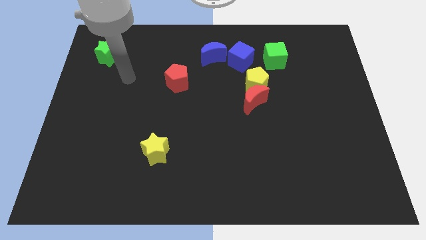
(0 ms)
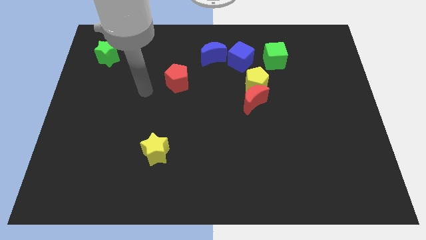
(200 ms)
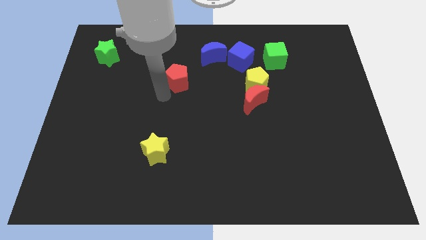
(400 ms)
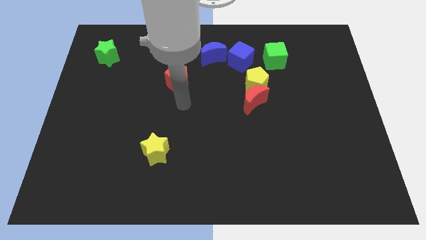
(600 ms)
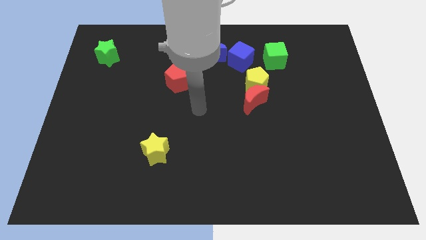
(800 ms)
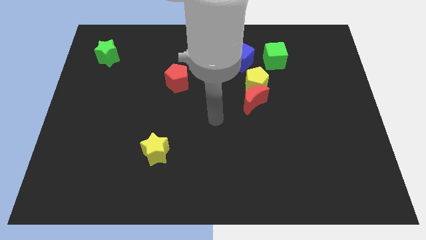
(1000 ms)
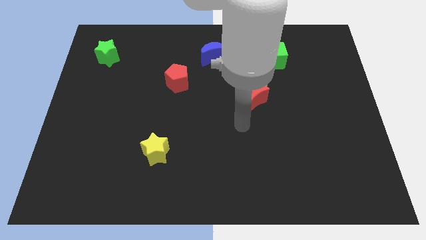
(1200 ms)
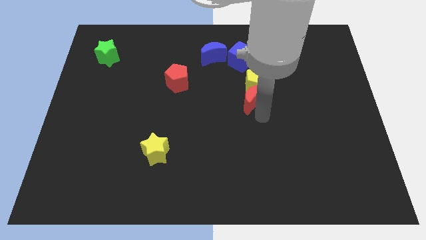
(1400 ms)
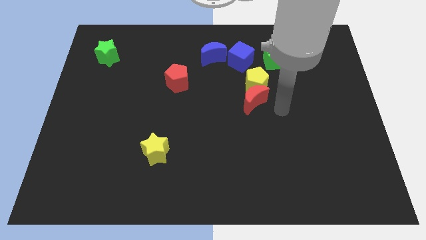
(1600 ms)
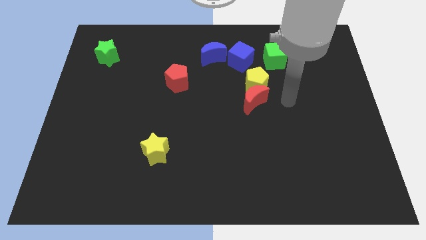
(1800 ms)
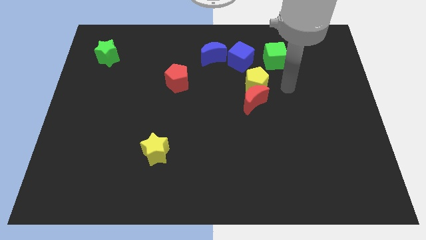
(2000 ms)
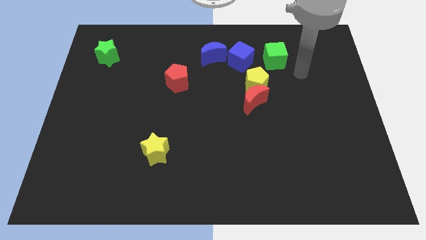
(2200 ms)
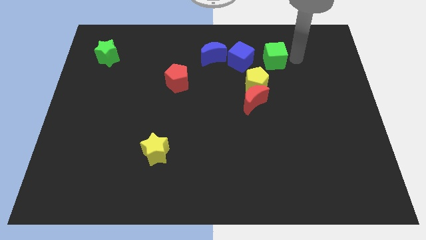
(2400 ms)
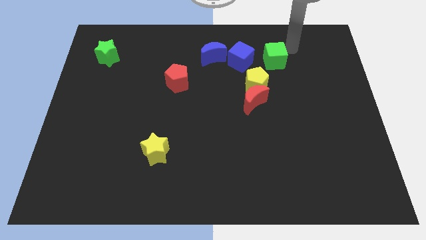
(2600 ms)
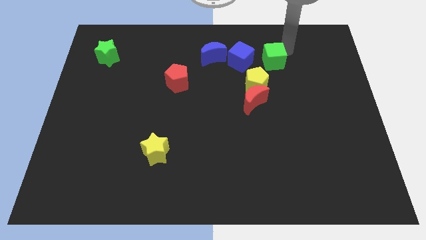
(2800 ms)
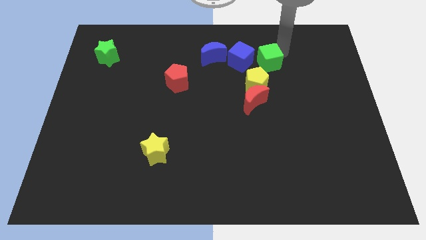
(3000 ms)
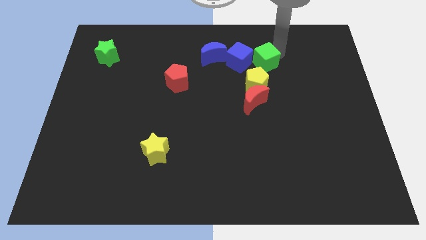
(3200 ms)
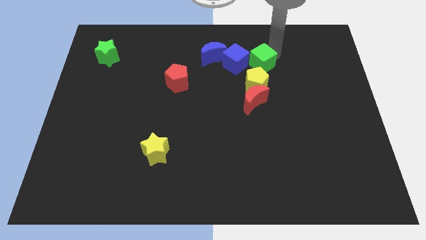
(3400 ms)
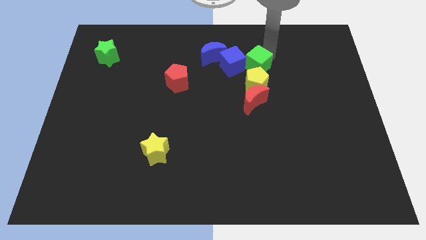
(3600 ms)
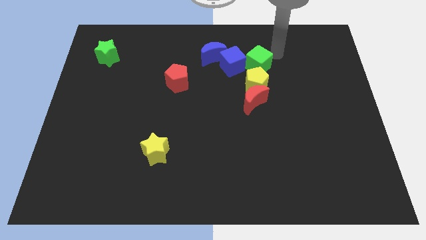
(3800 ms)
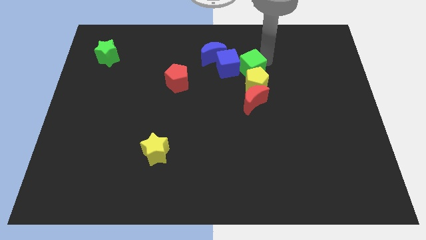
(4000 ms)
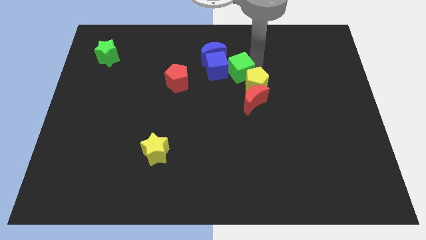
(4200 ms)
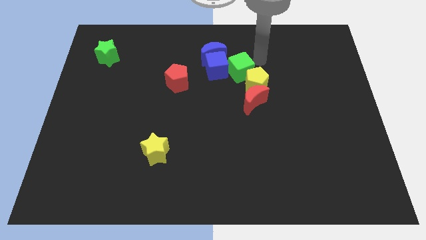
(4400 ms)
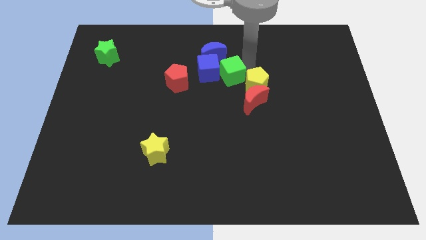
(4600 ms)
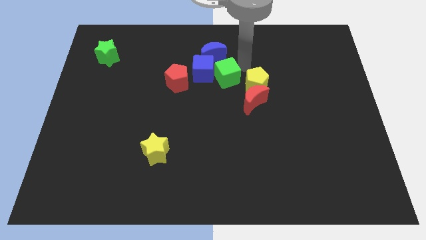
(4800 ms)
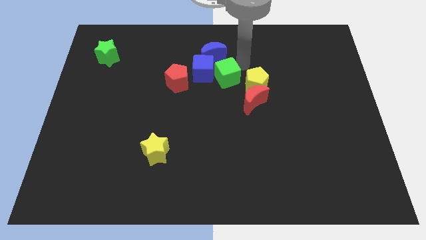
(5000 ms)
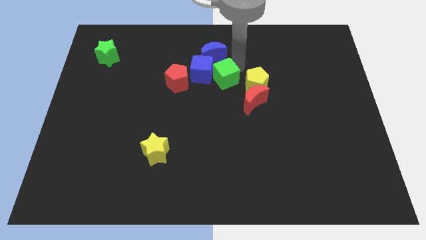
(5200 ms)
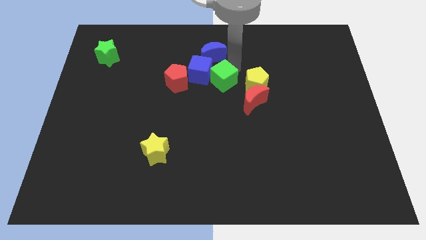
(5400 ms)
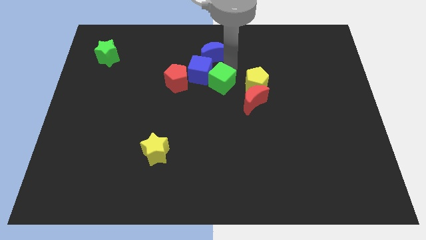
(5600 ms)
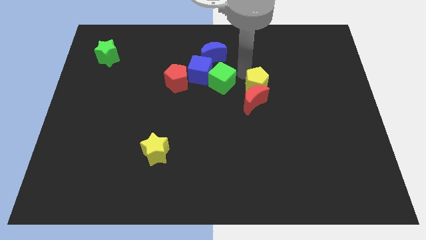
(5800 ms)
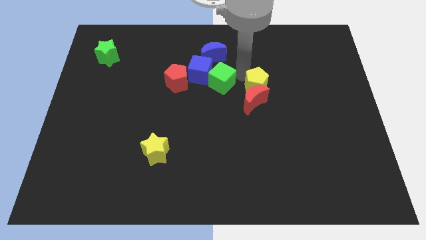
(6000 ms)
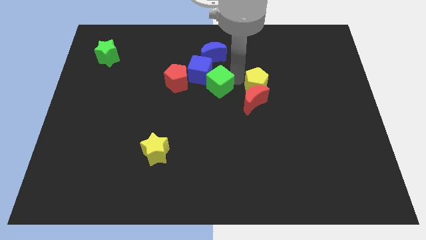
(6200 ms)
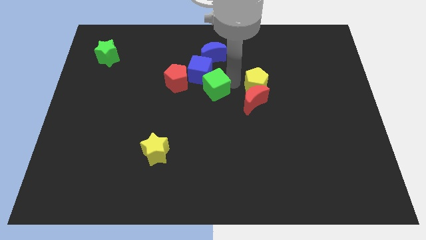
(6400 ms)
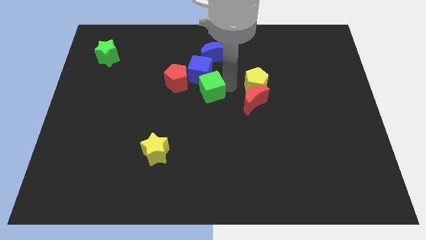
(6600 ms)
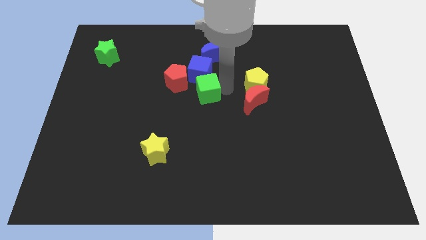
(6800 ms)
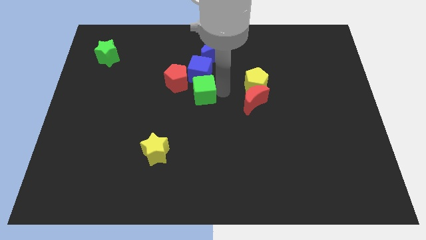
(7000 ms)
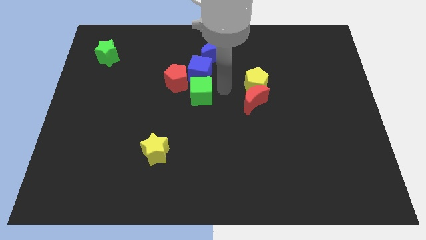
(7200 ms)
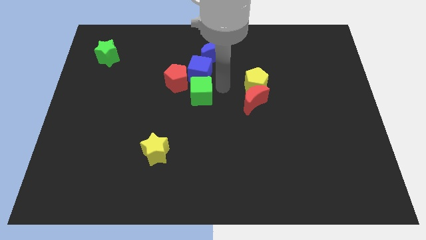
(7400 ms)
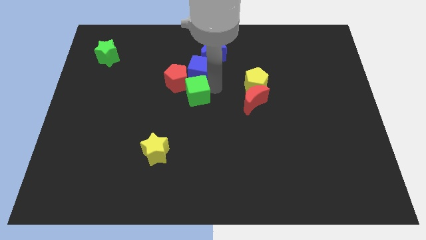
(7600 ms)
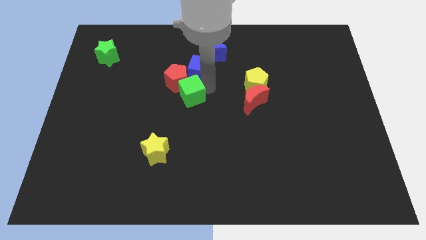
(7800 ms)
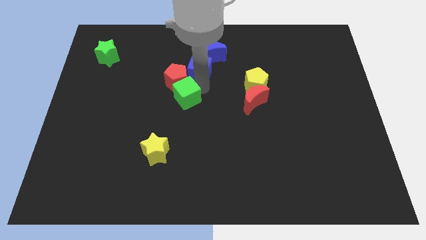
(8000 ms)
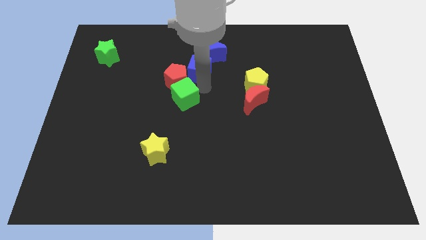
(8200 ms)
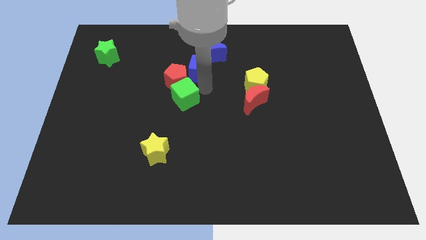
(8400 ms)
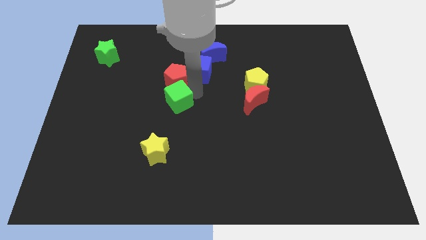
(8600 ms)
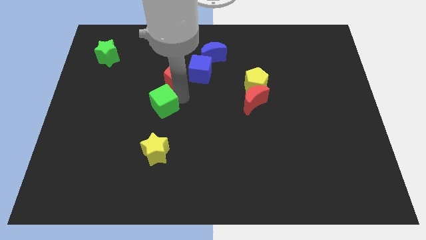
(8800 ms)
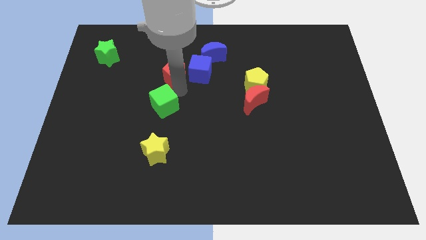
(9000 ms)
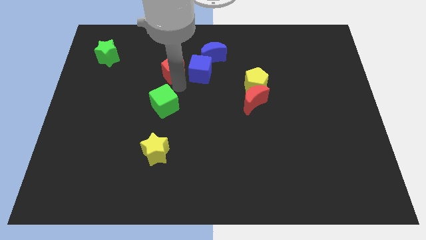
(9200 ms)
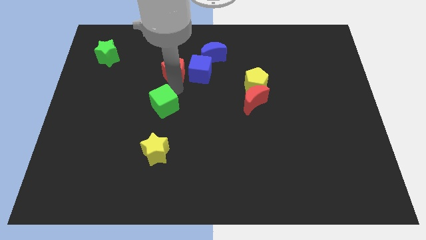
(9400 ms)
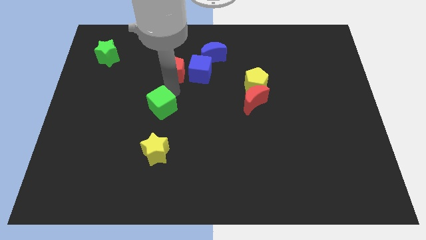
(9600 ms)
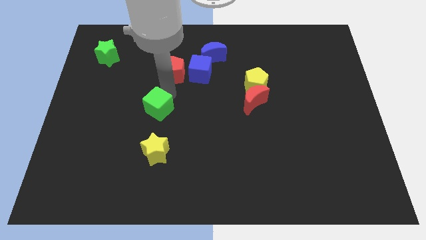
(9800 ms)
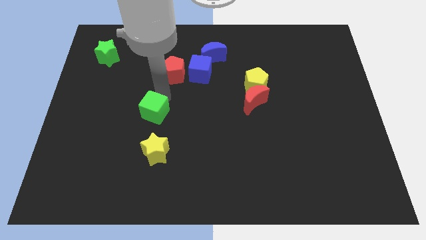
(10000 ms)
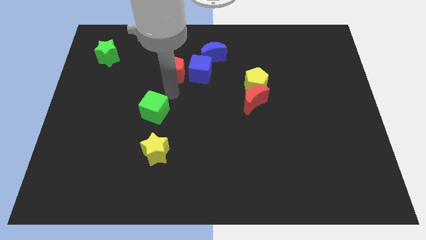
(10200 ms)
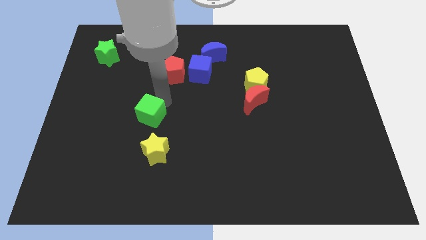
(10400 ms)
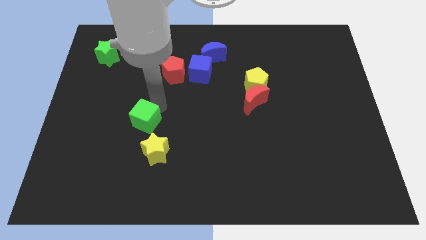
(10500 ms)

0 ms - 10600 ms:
push the green cube diagonally up and to the left of the yellow star

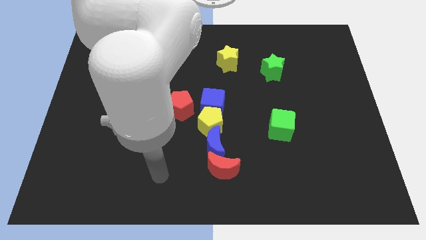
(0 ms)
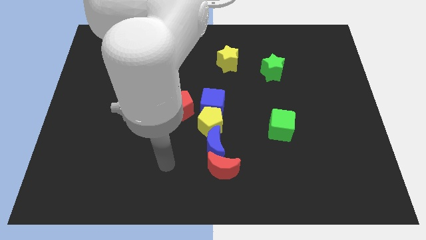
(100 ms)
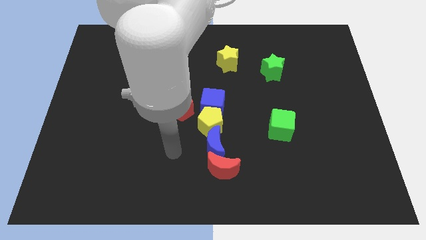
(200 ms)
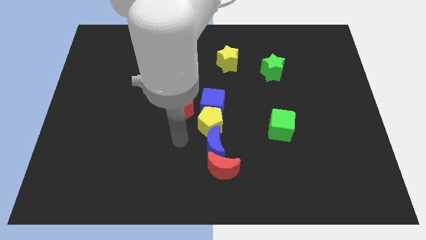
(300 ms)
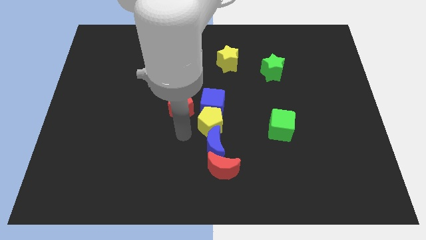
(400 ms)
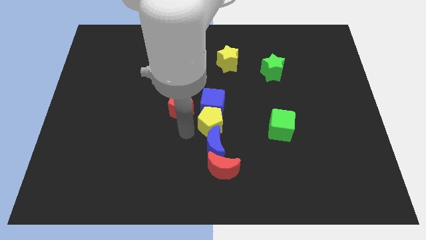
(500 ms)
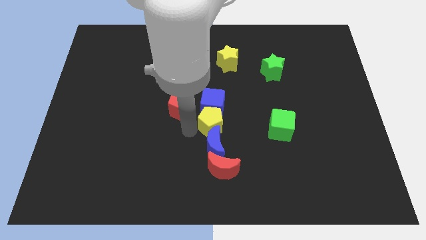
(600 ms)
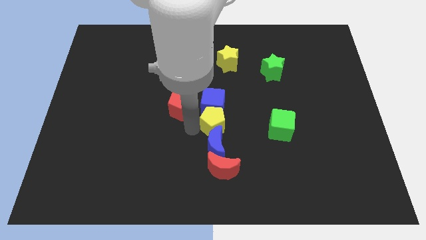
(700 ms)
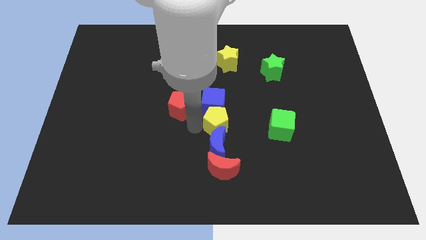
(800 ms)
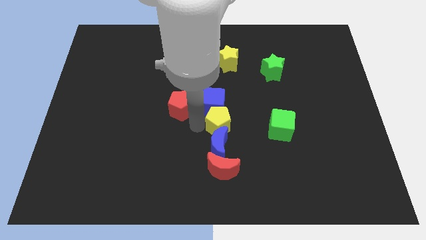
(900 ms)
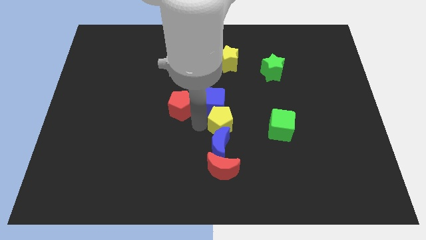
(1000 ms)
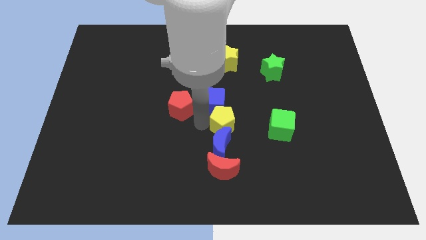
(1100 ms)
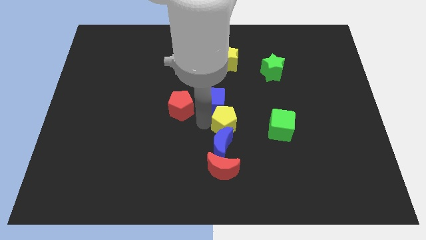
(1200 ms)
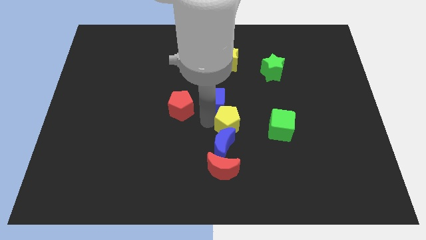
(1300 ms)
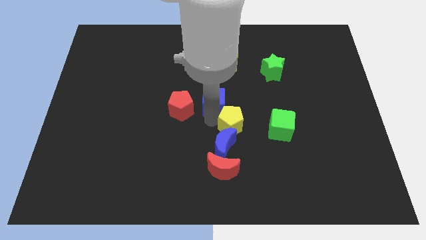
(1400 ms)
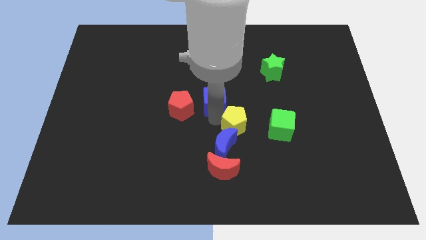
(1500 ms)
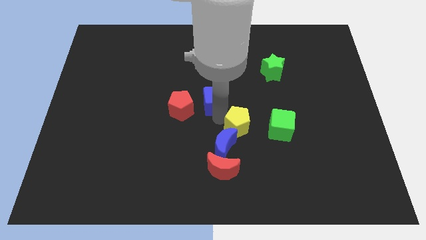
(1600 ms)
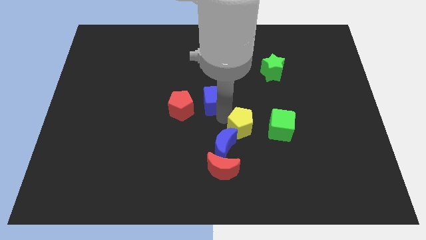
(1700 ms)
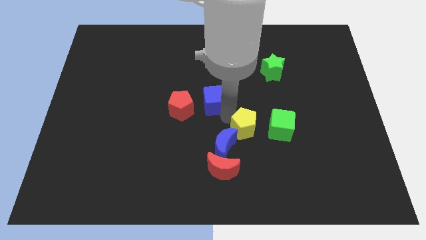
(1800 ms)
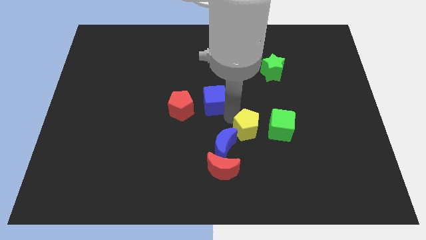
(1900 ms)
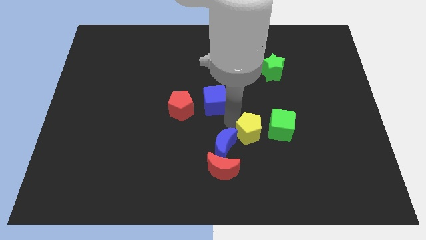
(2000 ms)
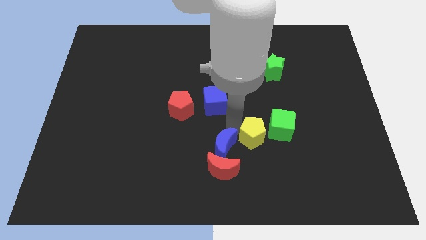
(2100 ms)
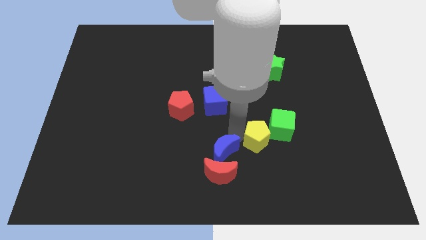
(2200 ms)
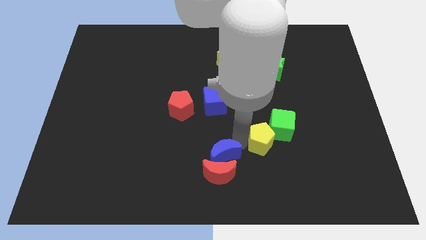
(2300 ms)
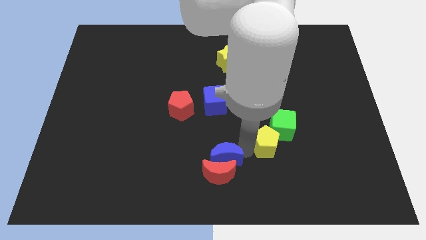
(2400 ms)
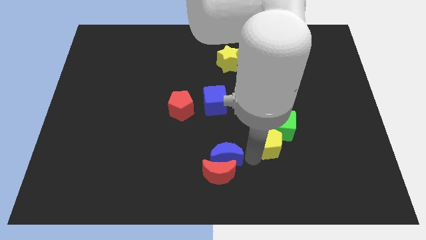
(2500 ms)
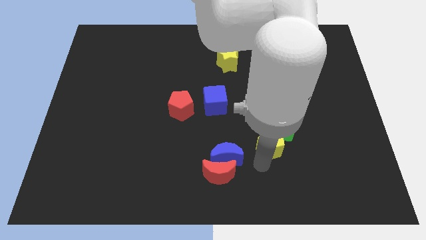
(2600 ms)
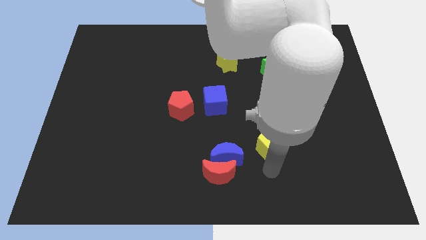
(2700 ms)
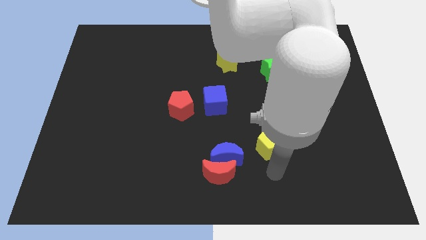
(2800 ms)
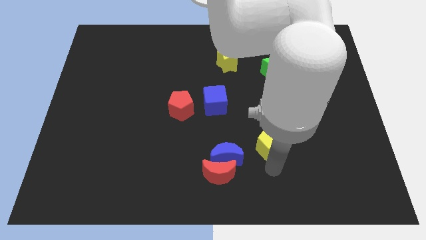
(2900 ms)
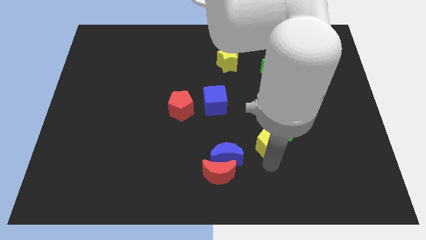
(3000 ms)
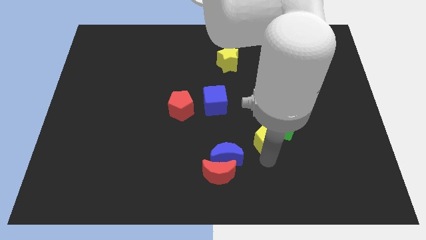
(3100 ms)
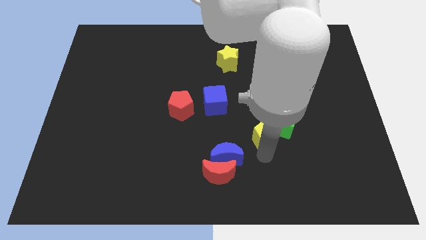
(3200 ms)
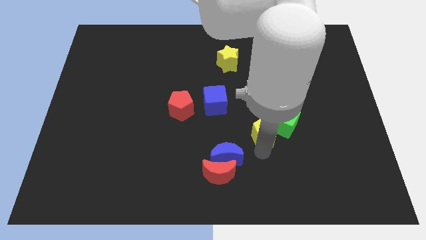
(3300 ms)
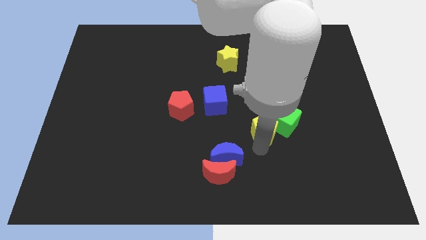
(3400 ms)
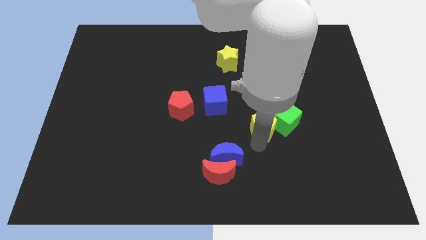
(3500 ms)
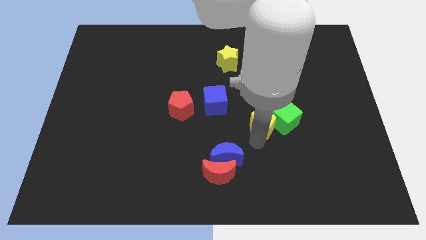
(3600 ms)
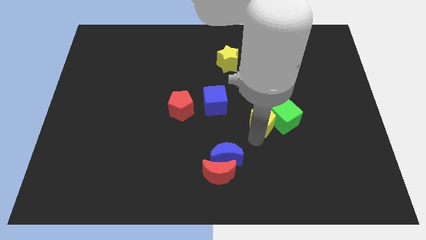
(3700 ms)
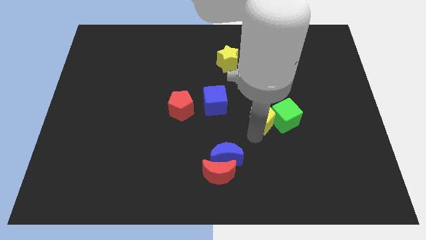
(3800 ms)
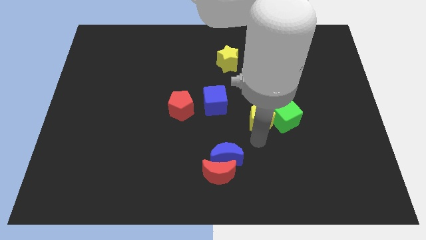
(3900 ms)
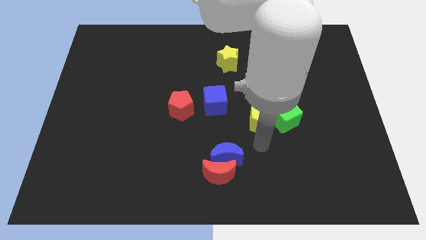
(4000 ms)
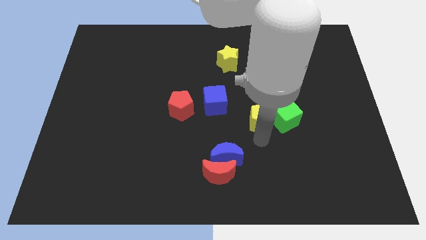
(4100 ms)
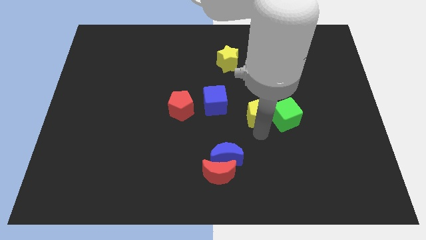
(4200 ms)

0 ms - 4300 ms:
put the yellow pentagon just right of the blue cube
